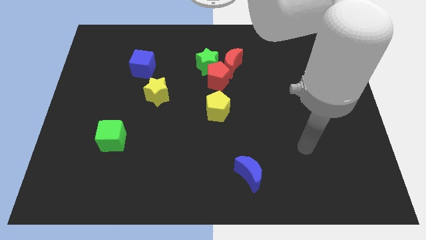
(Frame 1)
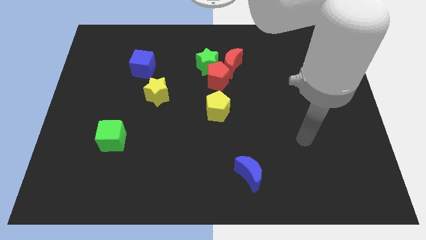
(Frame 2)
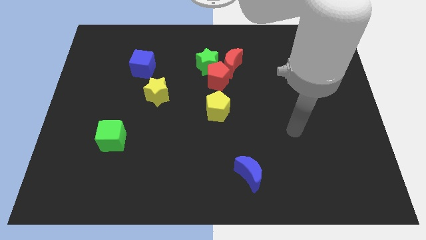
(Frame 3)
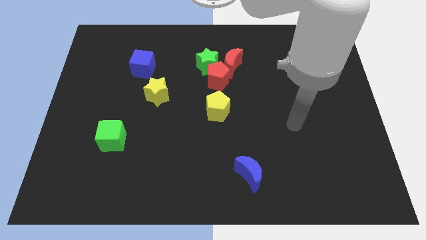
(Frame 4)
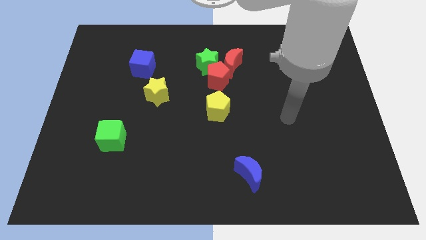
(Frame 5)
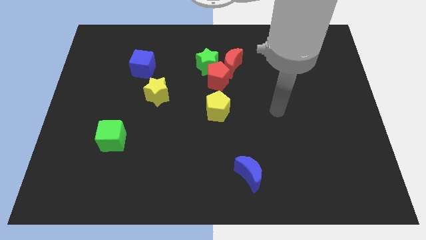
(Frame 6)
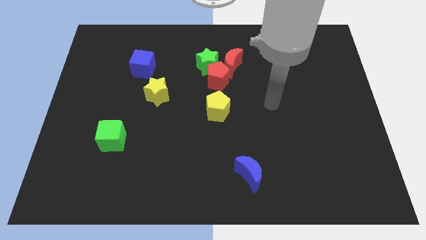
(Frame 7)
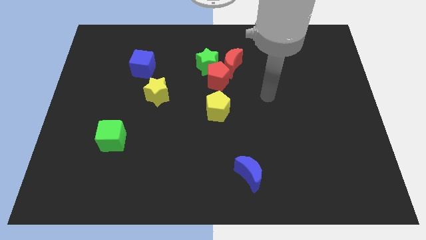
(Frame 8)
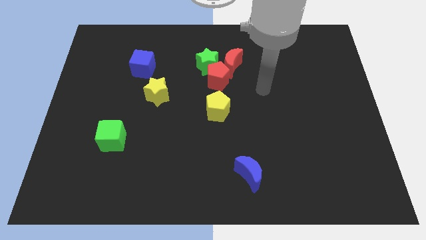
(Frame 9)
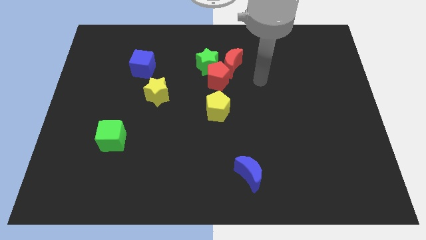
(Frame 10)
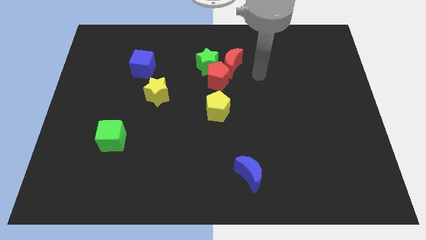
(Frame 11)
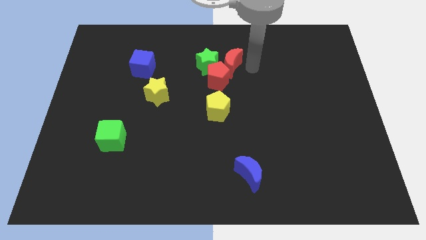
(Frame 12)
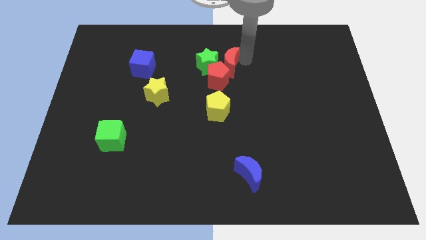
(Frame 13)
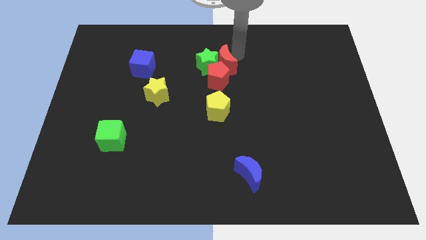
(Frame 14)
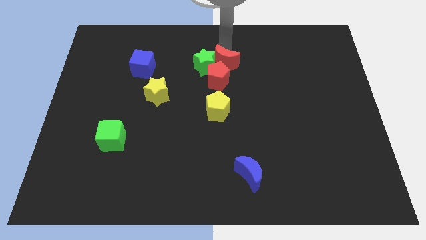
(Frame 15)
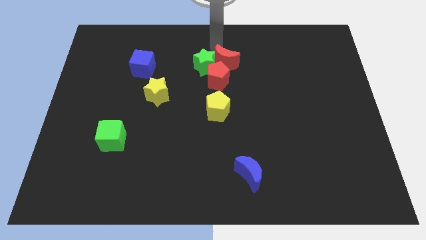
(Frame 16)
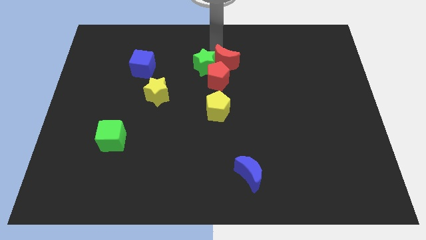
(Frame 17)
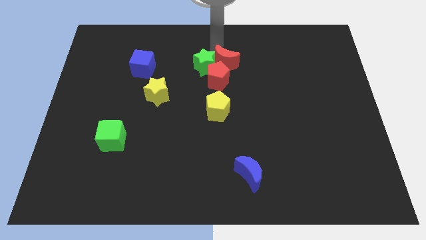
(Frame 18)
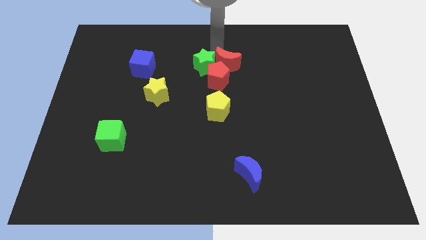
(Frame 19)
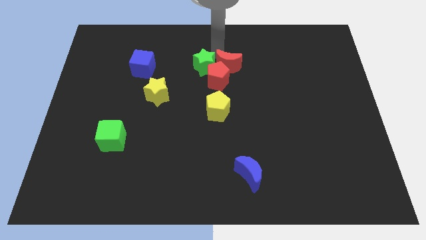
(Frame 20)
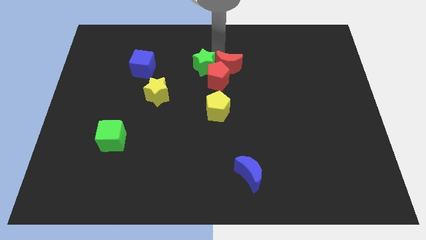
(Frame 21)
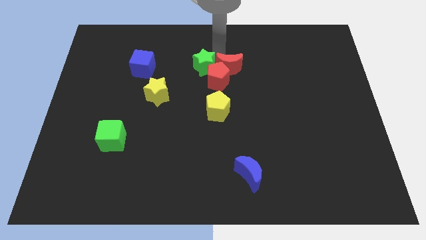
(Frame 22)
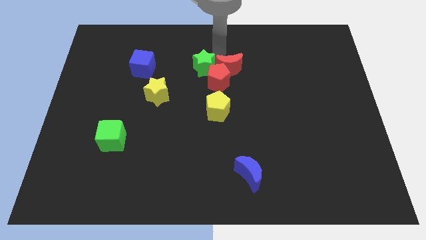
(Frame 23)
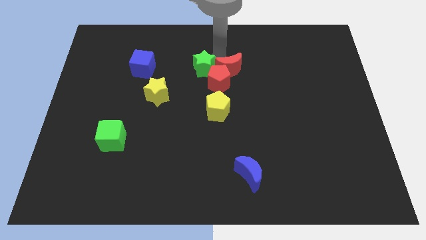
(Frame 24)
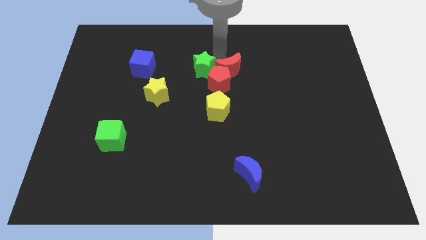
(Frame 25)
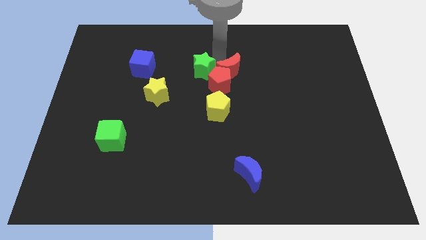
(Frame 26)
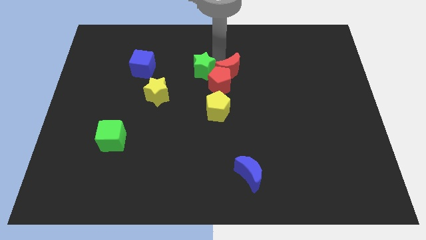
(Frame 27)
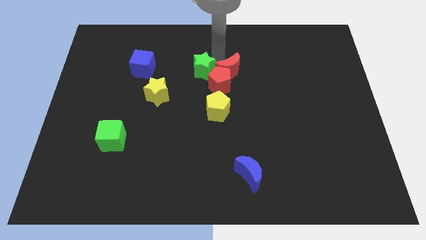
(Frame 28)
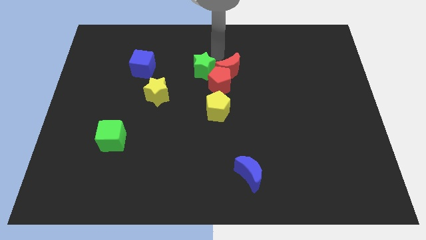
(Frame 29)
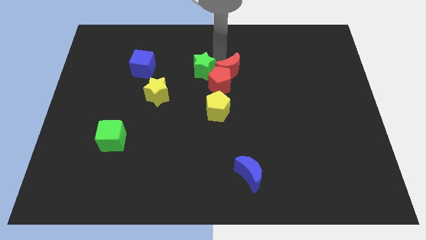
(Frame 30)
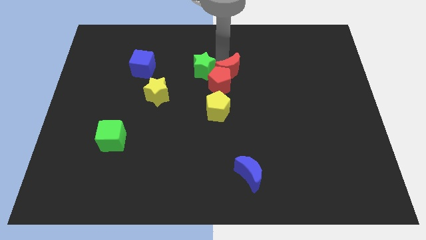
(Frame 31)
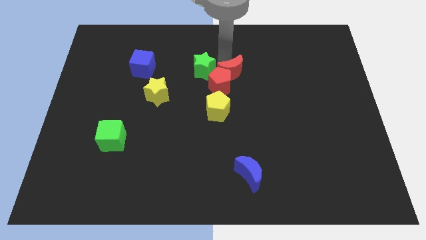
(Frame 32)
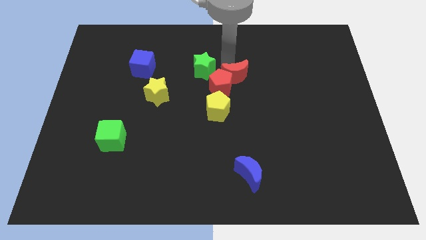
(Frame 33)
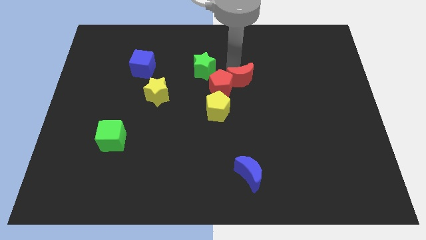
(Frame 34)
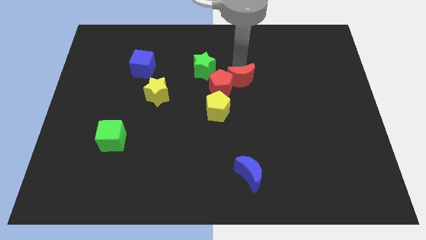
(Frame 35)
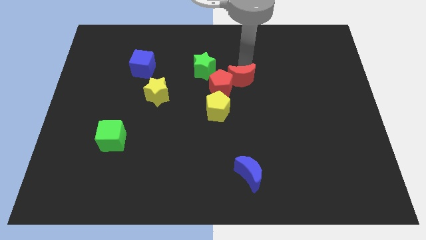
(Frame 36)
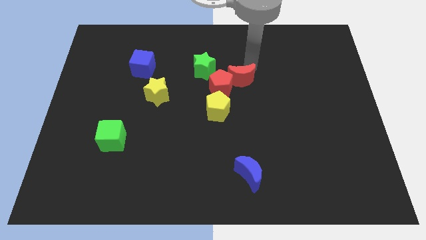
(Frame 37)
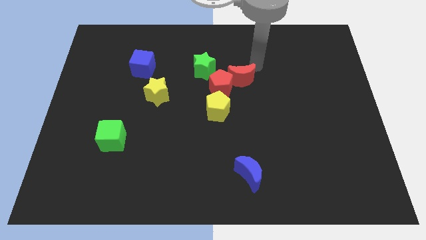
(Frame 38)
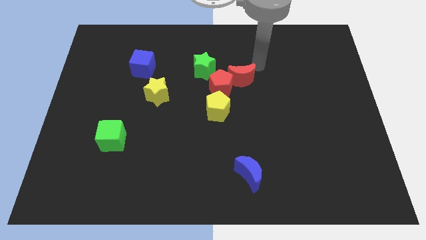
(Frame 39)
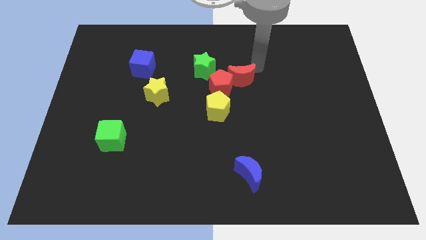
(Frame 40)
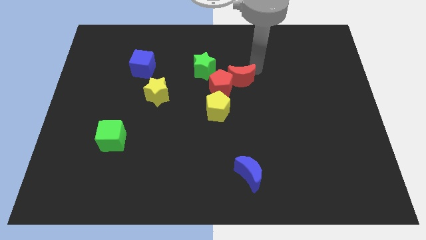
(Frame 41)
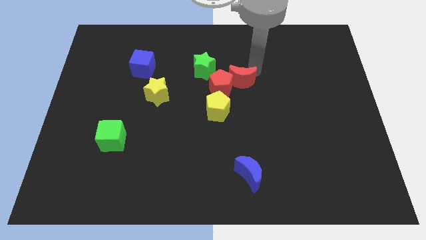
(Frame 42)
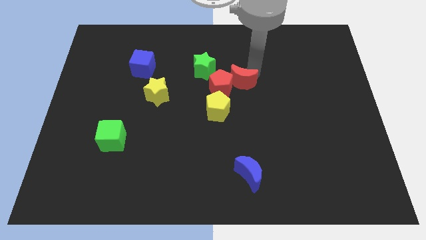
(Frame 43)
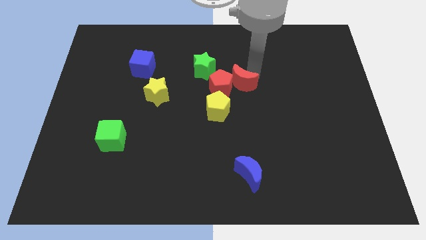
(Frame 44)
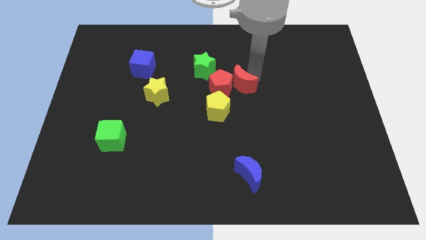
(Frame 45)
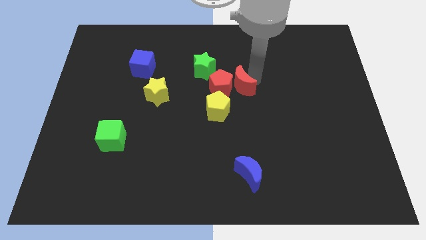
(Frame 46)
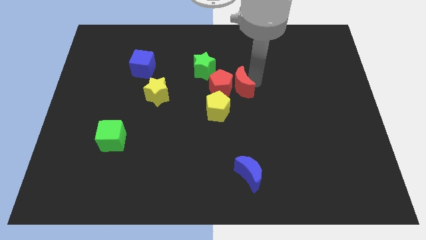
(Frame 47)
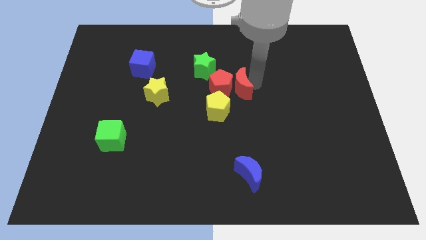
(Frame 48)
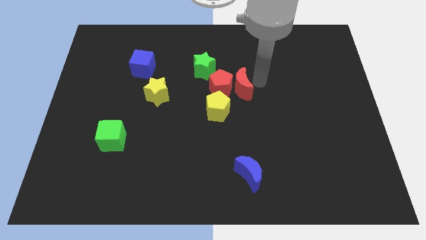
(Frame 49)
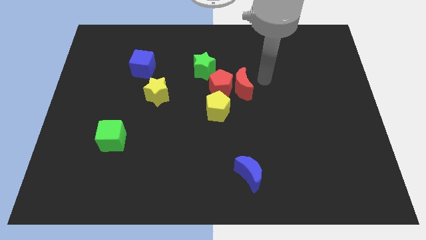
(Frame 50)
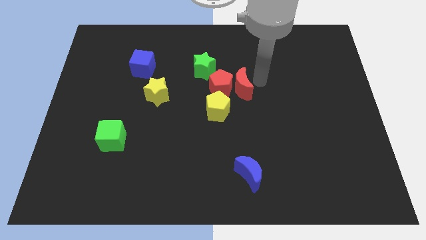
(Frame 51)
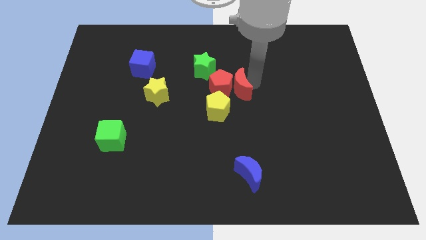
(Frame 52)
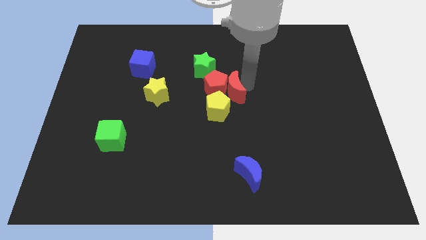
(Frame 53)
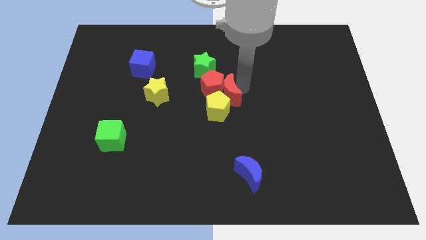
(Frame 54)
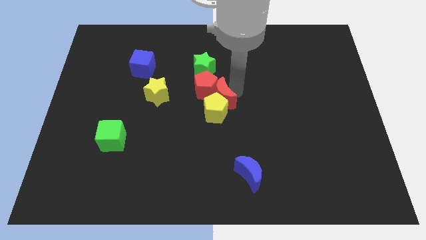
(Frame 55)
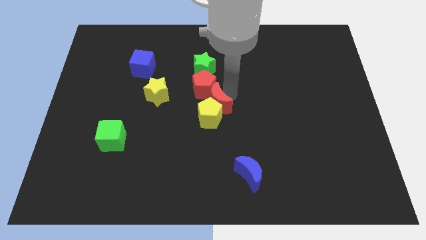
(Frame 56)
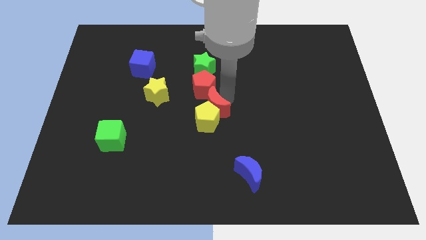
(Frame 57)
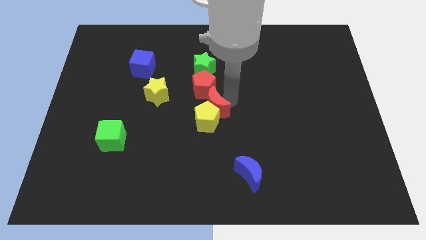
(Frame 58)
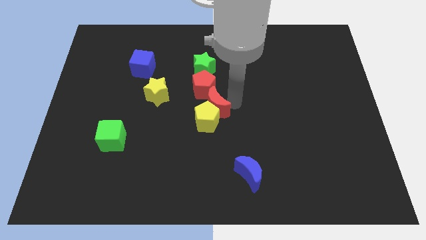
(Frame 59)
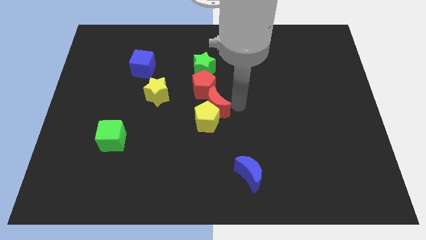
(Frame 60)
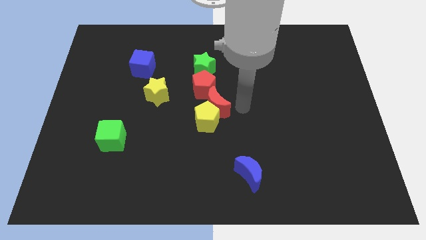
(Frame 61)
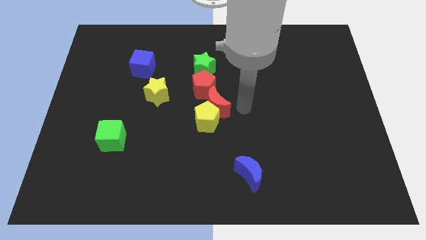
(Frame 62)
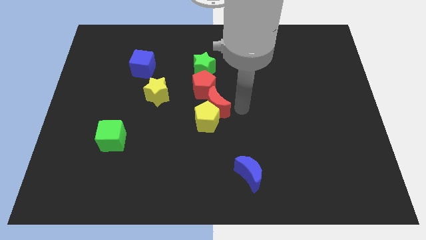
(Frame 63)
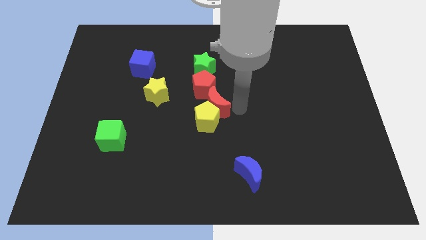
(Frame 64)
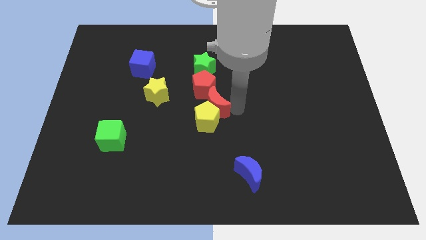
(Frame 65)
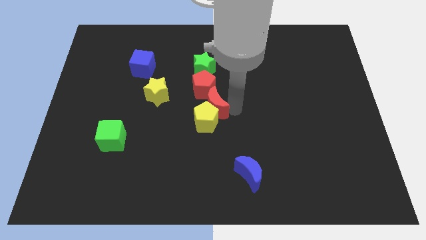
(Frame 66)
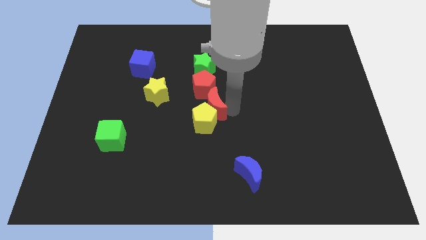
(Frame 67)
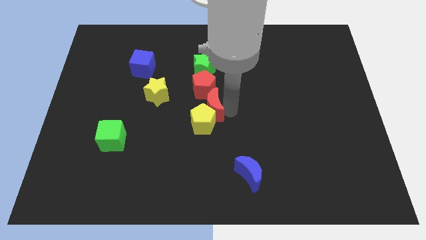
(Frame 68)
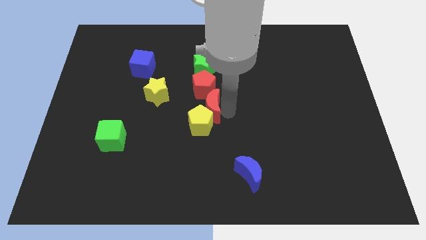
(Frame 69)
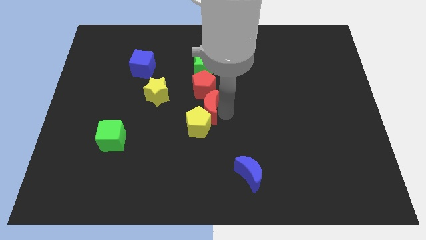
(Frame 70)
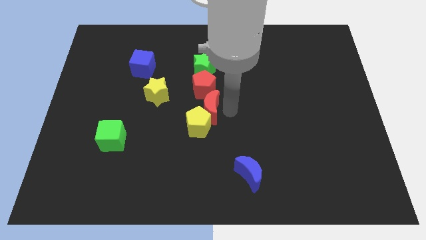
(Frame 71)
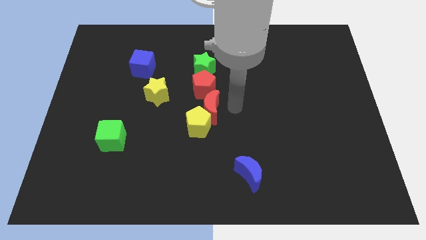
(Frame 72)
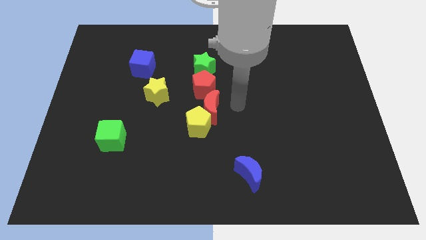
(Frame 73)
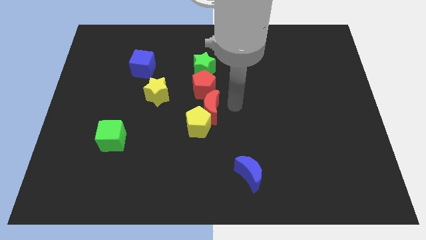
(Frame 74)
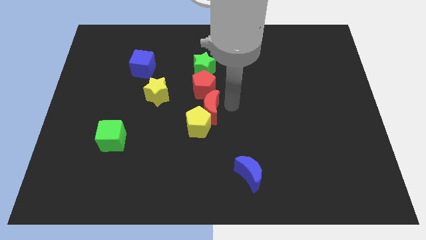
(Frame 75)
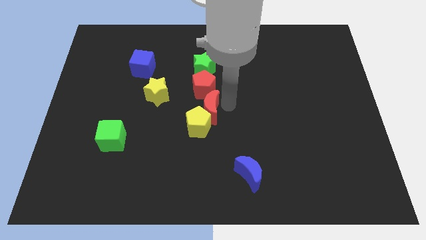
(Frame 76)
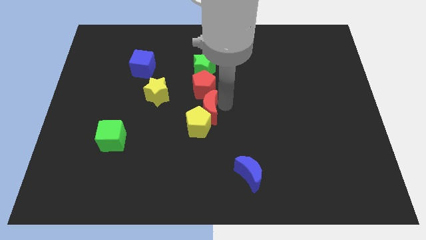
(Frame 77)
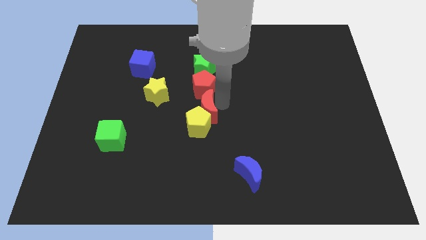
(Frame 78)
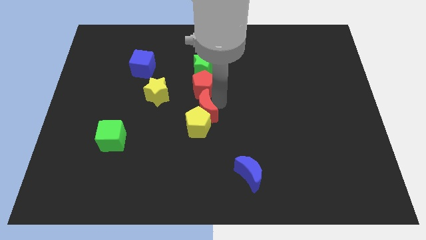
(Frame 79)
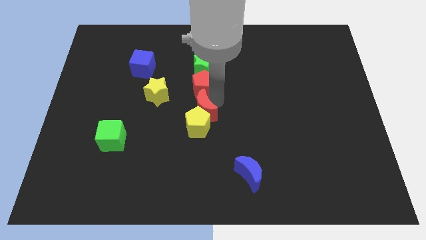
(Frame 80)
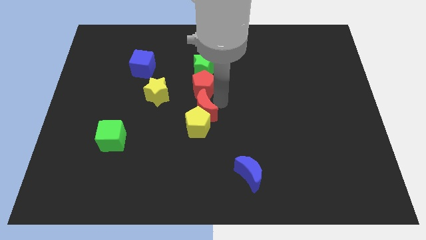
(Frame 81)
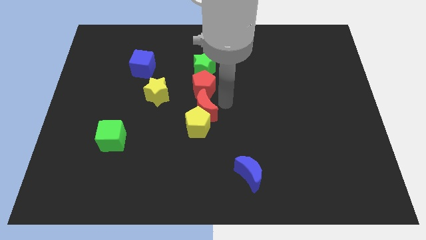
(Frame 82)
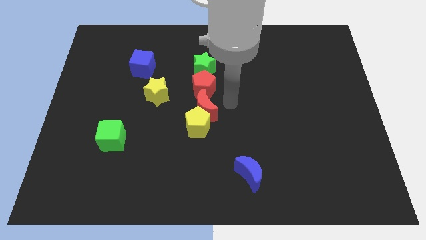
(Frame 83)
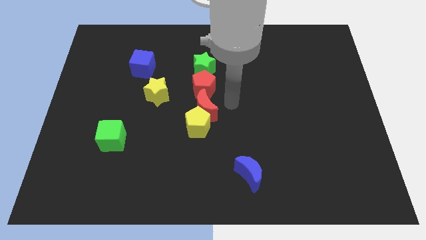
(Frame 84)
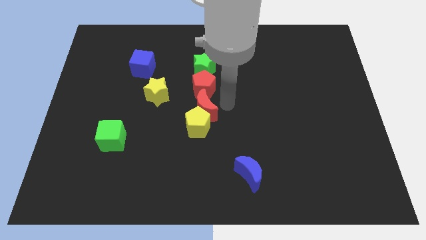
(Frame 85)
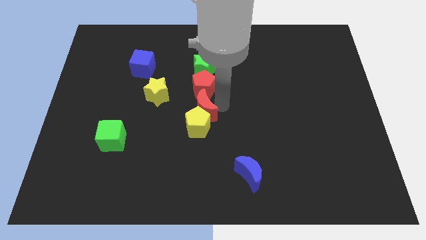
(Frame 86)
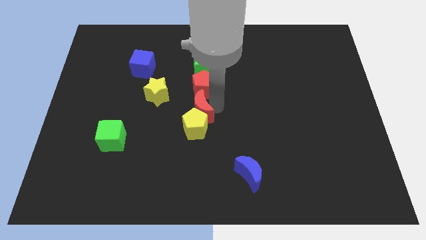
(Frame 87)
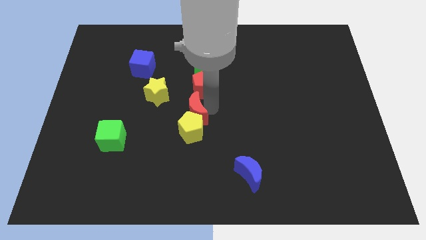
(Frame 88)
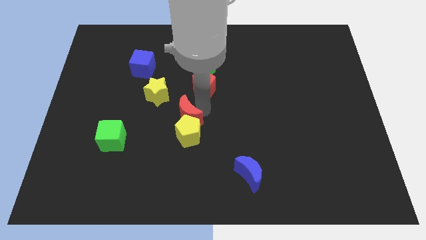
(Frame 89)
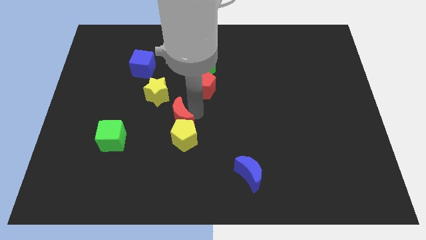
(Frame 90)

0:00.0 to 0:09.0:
slide the red moon diagonally downwards and left
